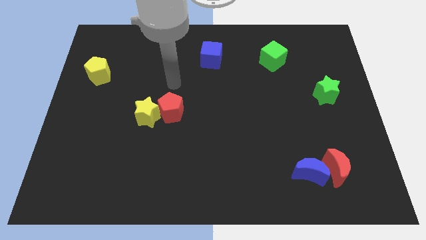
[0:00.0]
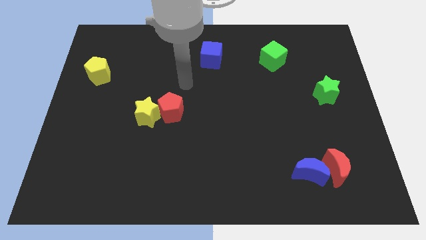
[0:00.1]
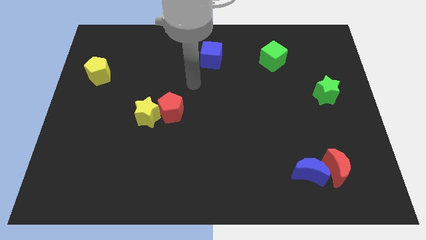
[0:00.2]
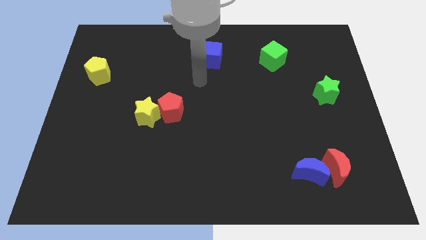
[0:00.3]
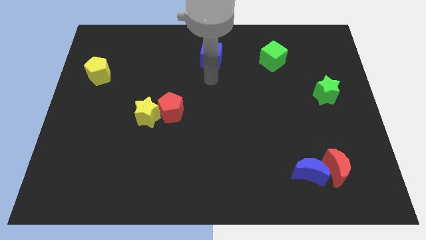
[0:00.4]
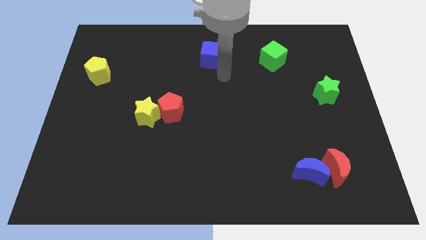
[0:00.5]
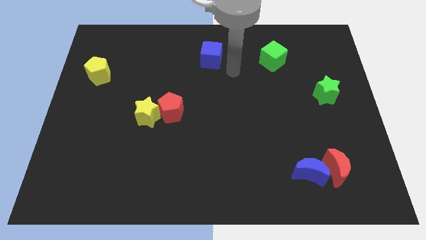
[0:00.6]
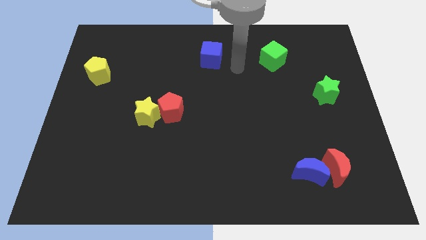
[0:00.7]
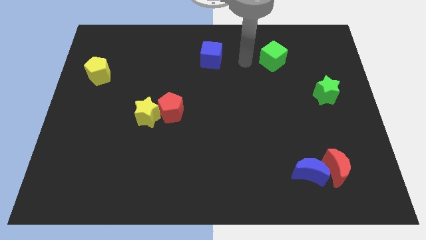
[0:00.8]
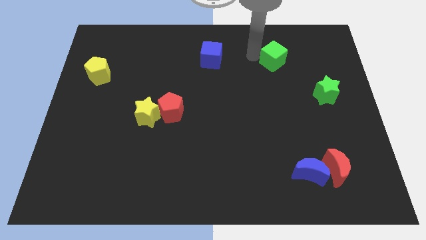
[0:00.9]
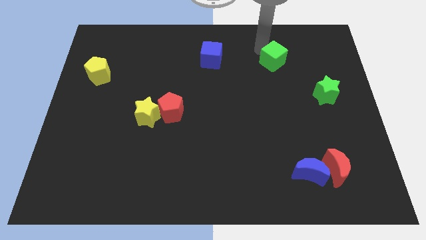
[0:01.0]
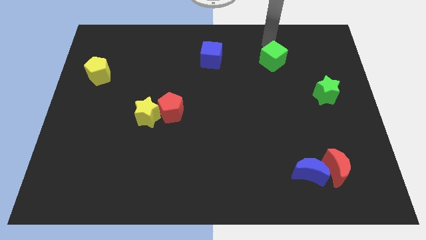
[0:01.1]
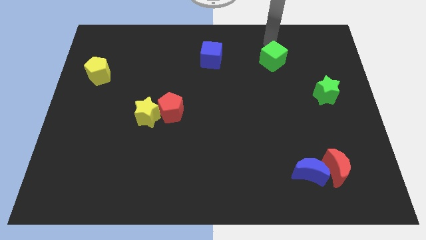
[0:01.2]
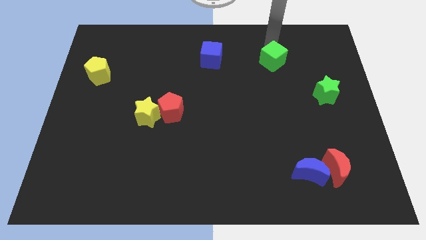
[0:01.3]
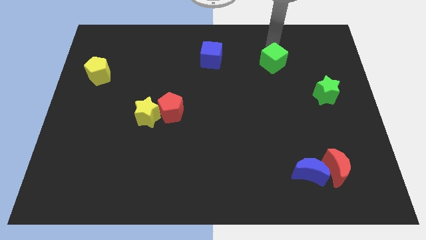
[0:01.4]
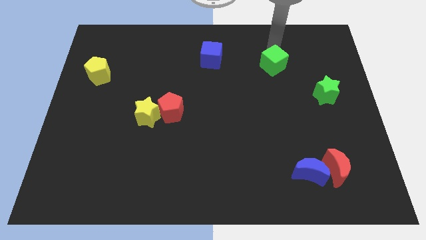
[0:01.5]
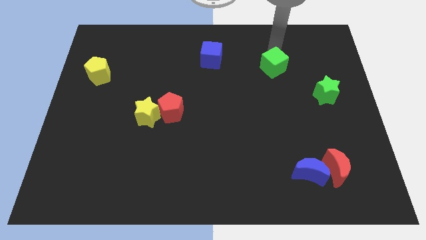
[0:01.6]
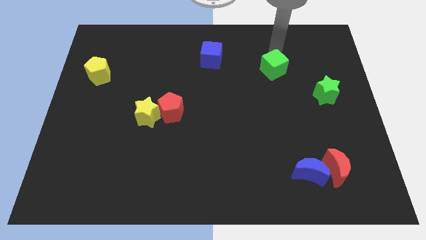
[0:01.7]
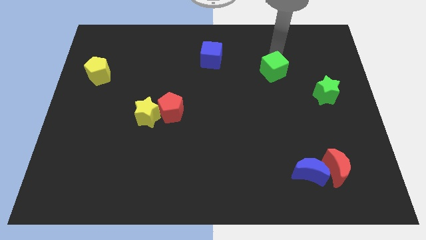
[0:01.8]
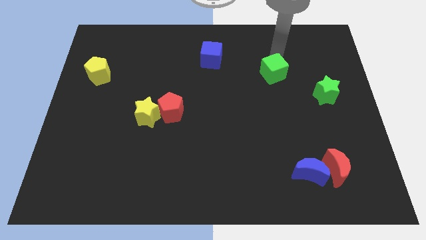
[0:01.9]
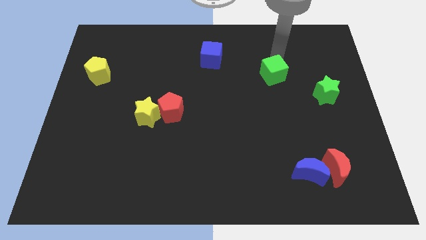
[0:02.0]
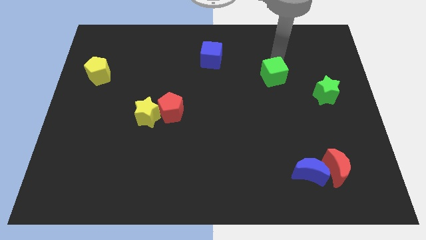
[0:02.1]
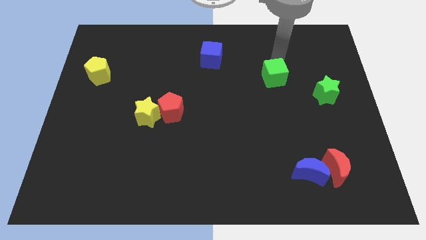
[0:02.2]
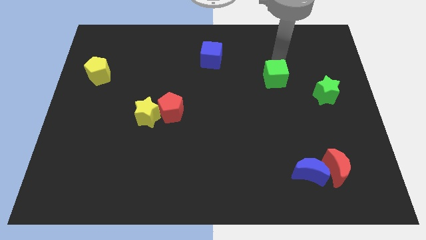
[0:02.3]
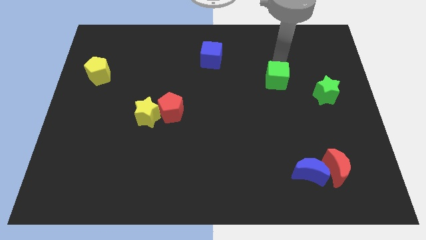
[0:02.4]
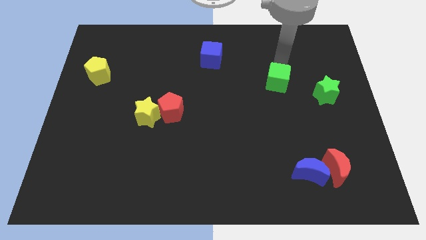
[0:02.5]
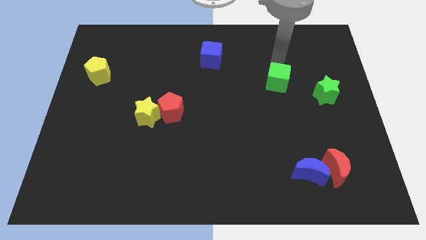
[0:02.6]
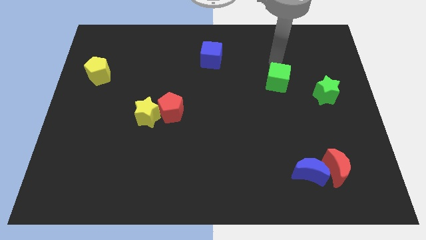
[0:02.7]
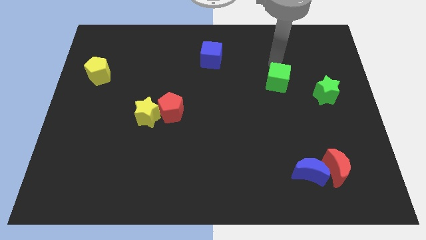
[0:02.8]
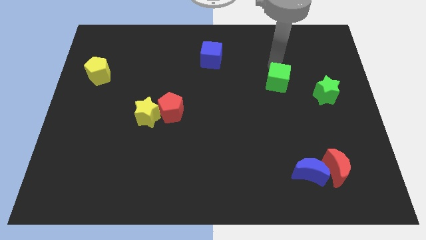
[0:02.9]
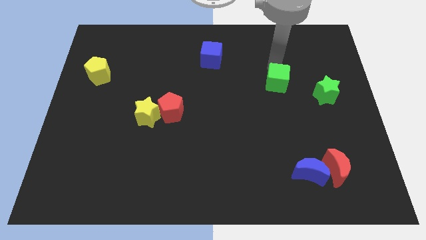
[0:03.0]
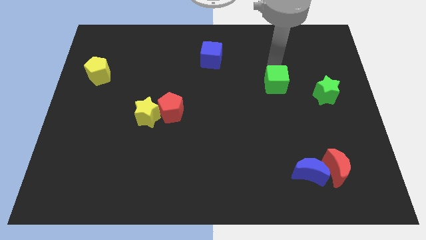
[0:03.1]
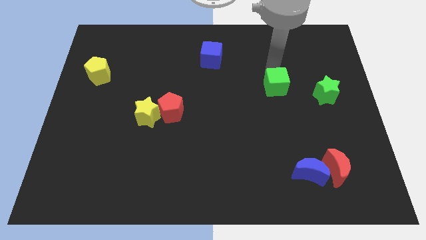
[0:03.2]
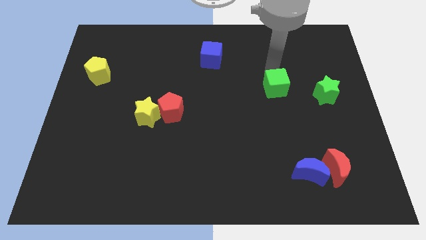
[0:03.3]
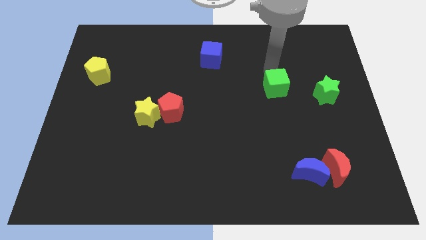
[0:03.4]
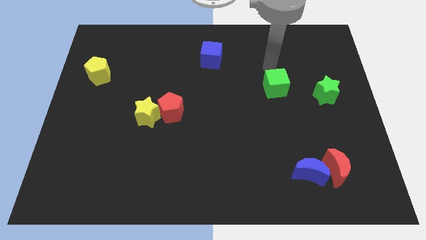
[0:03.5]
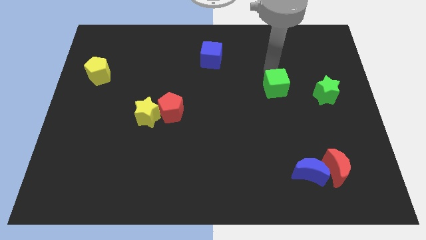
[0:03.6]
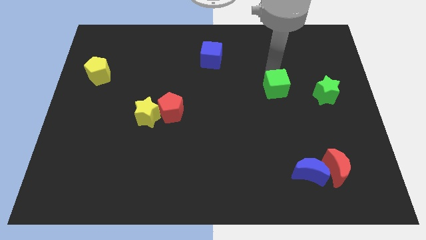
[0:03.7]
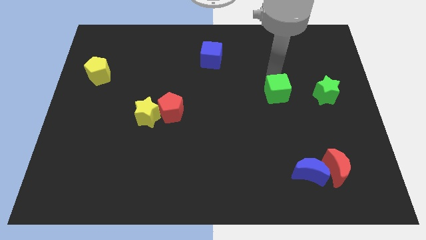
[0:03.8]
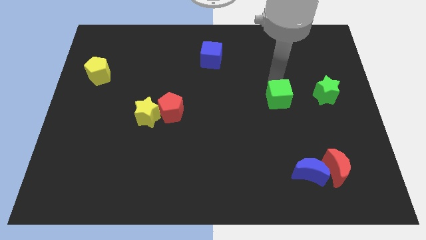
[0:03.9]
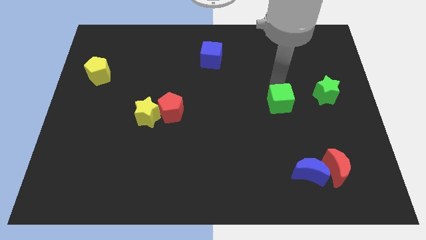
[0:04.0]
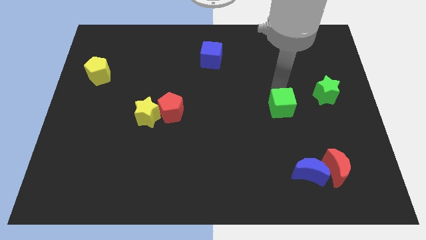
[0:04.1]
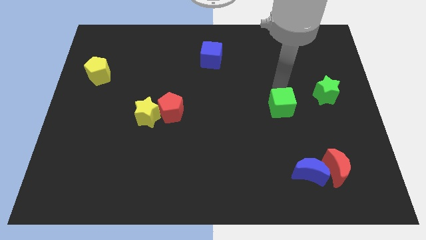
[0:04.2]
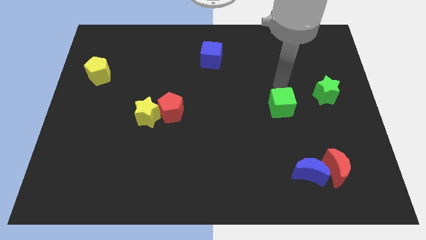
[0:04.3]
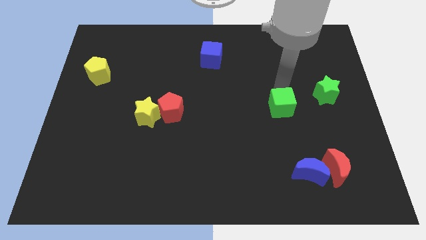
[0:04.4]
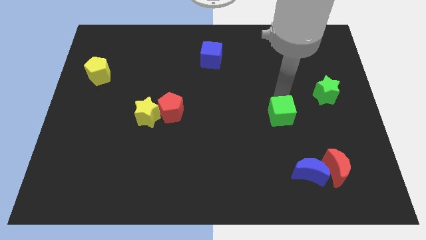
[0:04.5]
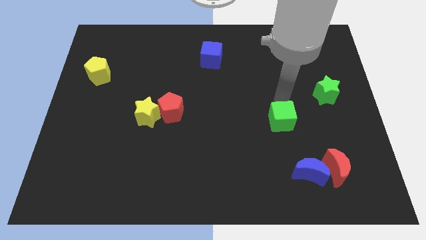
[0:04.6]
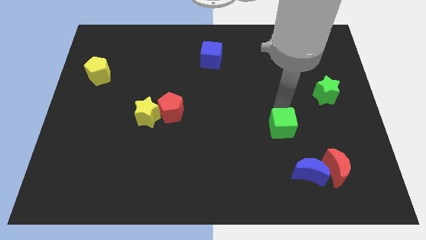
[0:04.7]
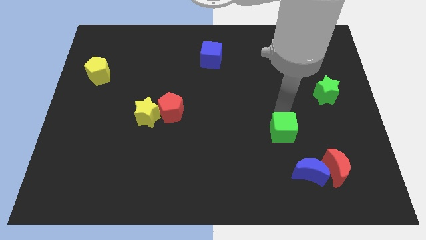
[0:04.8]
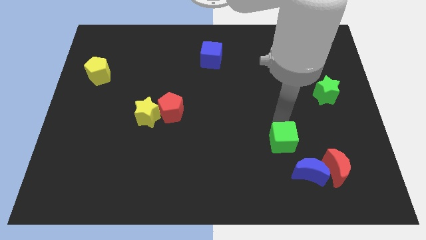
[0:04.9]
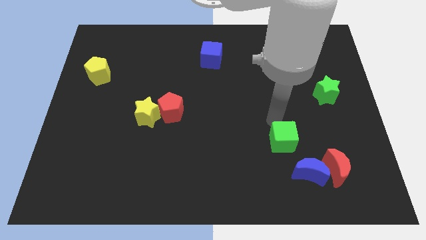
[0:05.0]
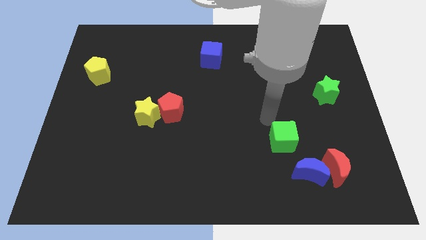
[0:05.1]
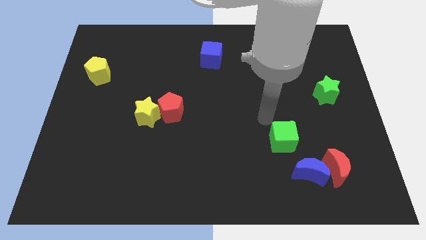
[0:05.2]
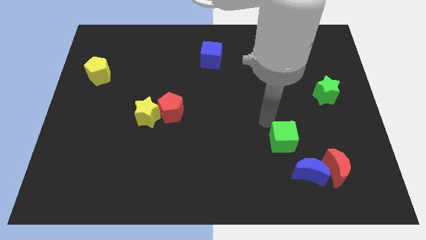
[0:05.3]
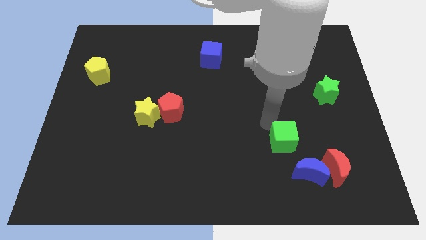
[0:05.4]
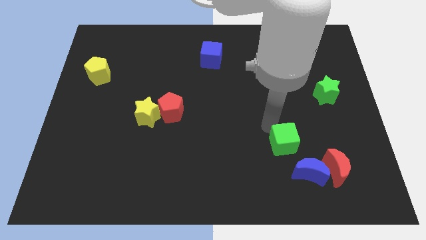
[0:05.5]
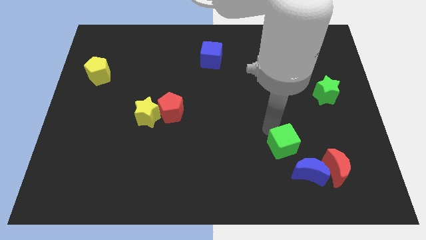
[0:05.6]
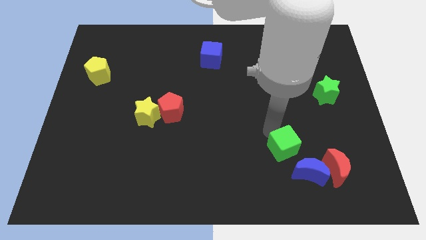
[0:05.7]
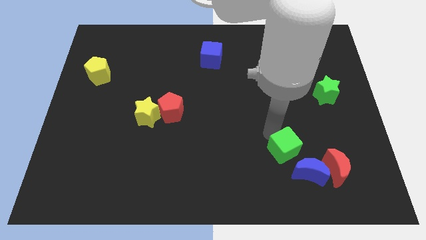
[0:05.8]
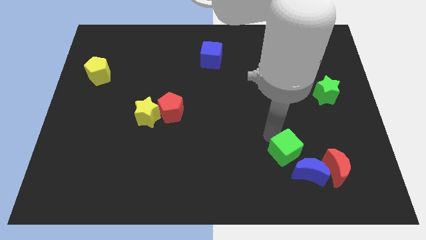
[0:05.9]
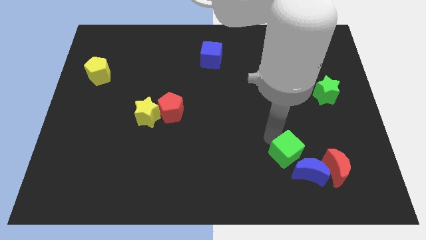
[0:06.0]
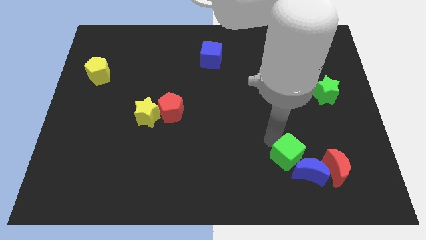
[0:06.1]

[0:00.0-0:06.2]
move the green cube towards the blue moon

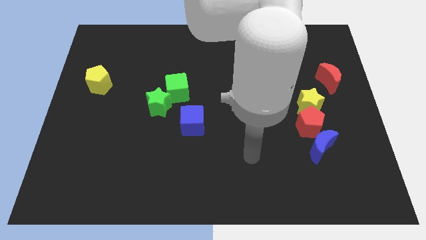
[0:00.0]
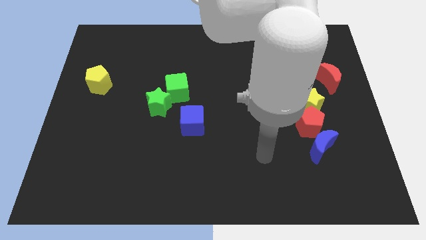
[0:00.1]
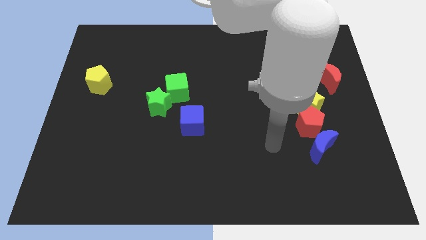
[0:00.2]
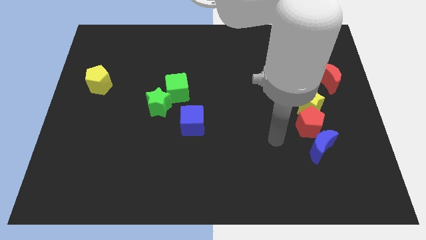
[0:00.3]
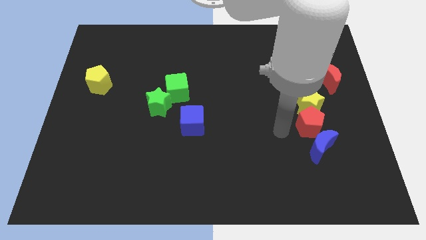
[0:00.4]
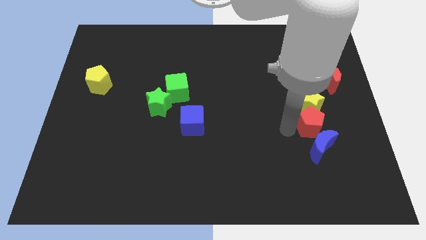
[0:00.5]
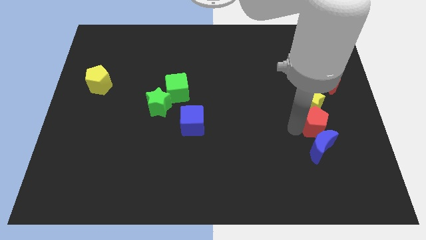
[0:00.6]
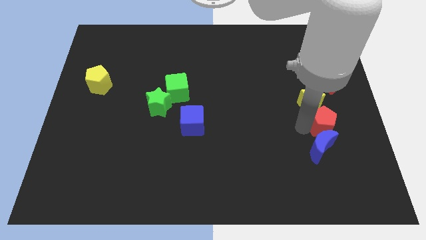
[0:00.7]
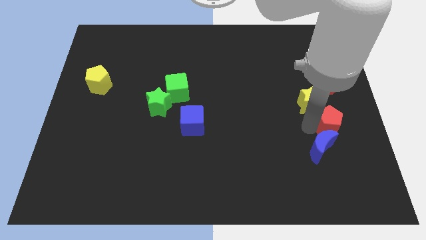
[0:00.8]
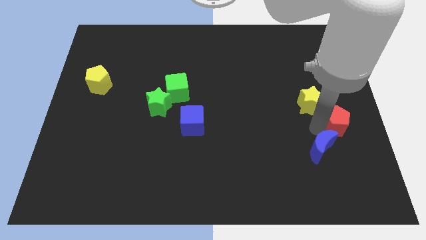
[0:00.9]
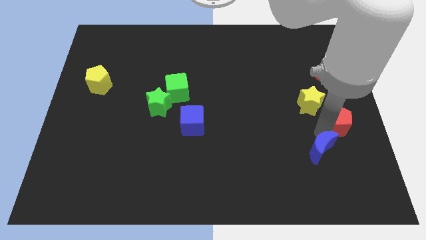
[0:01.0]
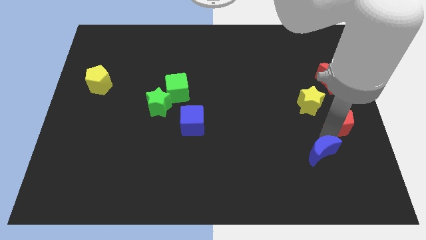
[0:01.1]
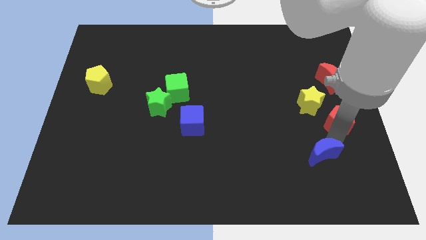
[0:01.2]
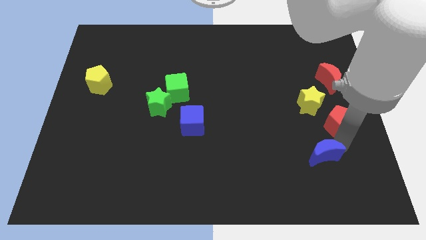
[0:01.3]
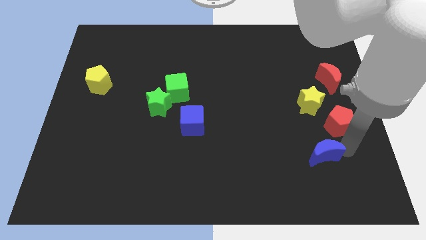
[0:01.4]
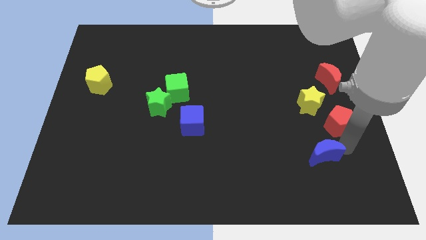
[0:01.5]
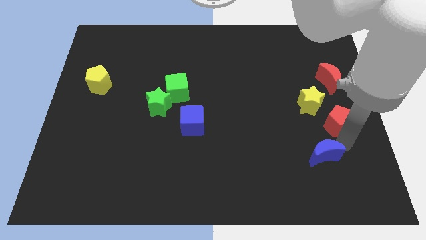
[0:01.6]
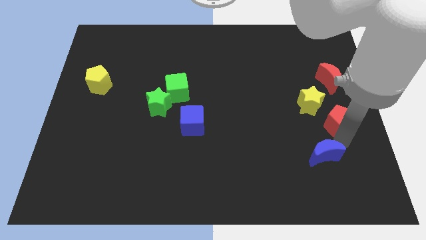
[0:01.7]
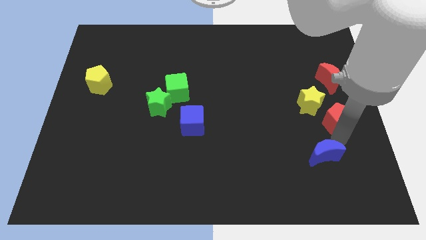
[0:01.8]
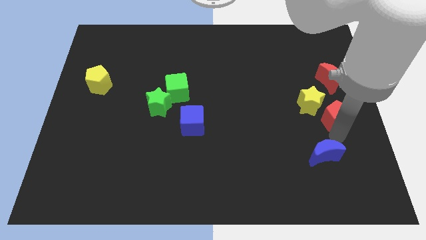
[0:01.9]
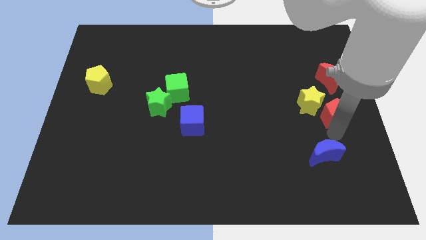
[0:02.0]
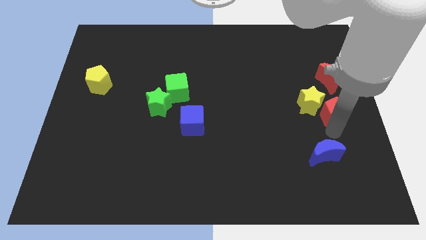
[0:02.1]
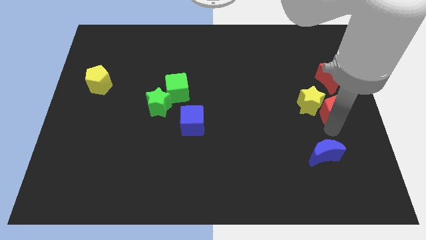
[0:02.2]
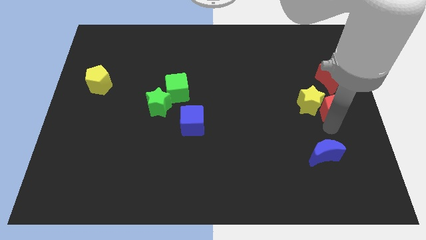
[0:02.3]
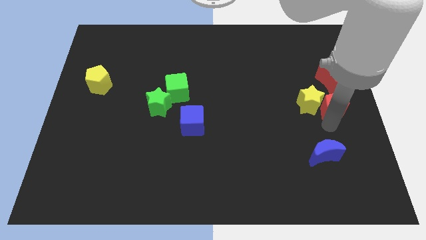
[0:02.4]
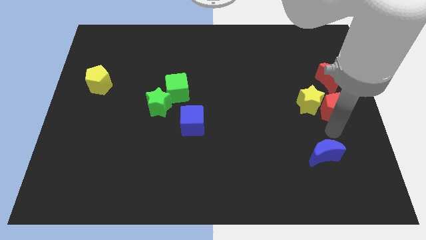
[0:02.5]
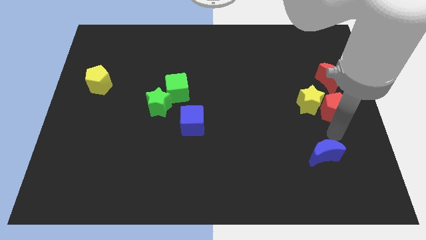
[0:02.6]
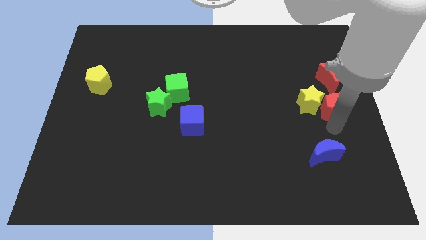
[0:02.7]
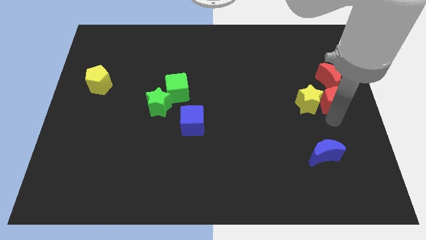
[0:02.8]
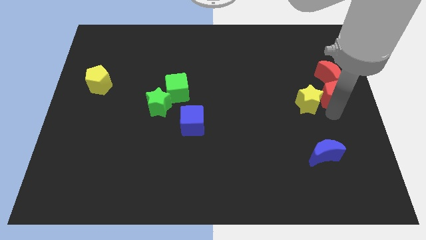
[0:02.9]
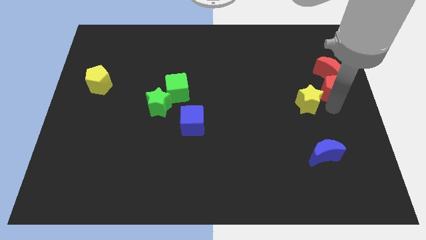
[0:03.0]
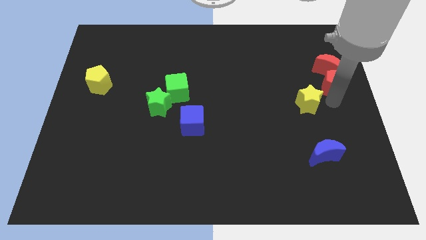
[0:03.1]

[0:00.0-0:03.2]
move the red pentagon close to the red moon
